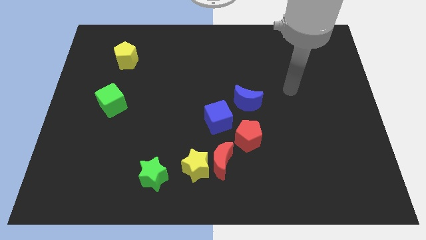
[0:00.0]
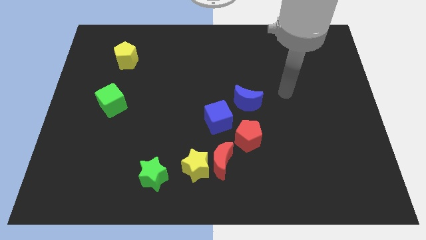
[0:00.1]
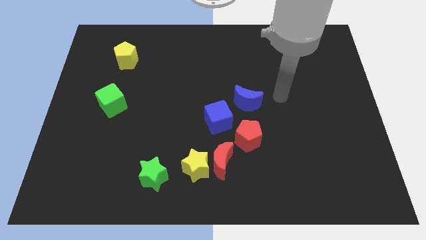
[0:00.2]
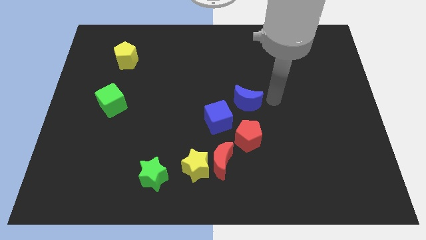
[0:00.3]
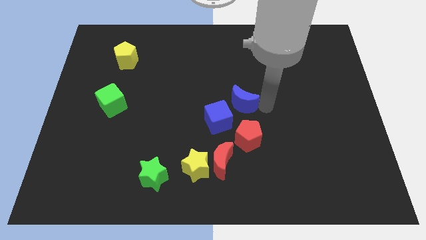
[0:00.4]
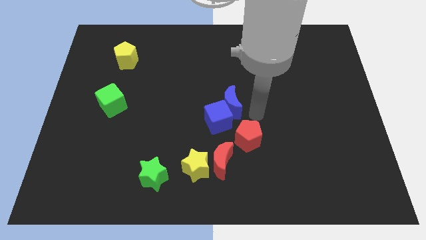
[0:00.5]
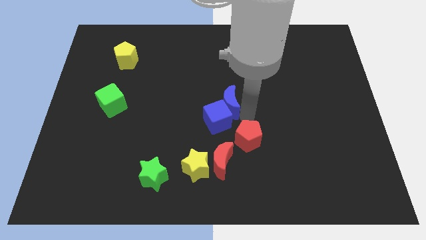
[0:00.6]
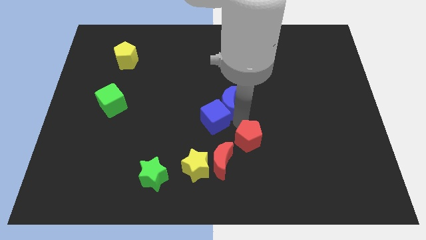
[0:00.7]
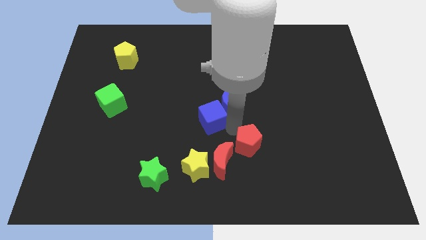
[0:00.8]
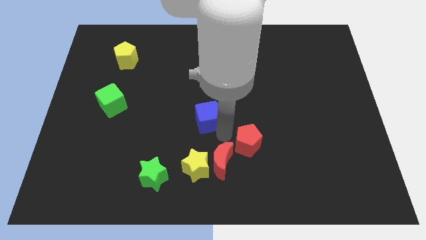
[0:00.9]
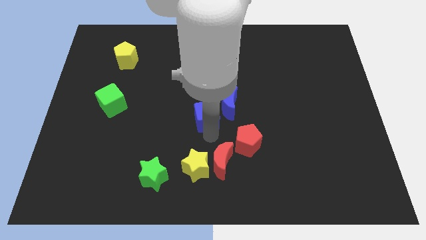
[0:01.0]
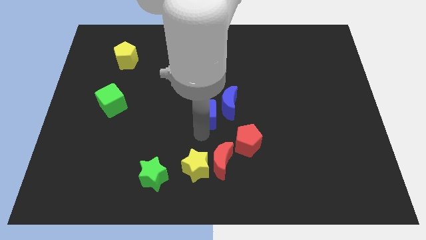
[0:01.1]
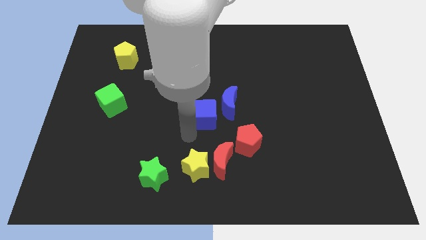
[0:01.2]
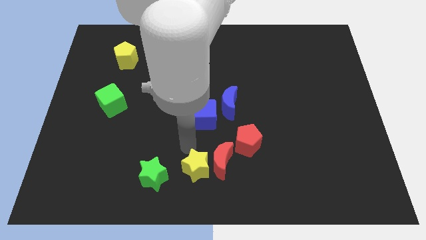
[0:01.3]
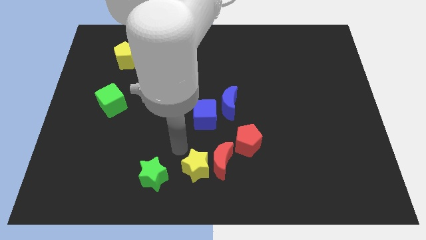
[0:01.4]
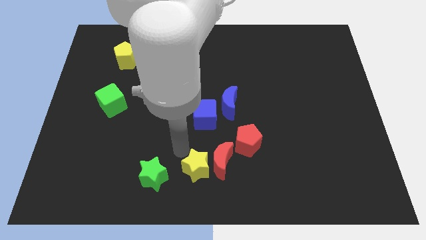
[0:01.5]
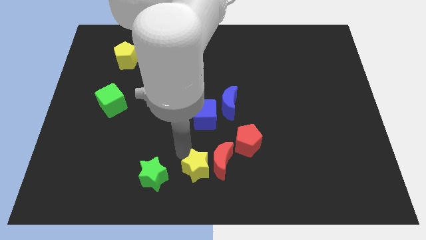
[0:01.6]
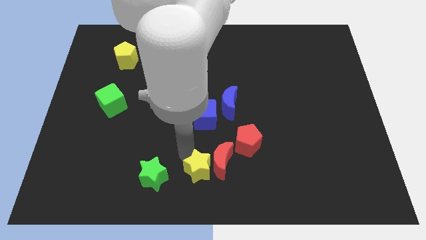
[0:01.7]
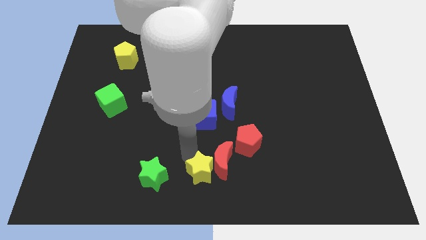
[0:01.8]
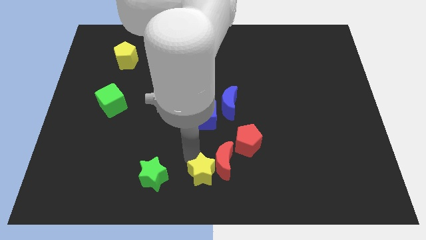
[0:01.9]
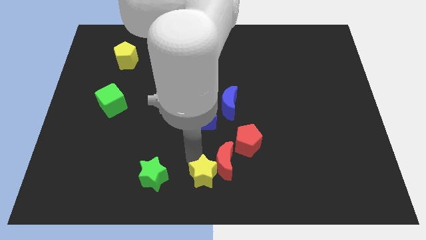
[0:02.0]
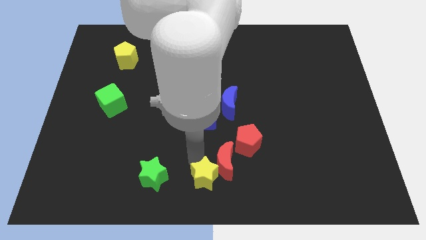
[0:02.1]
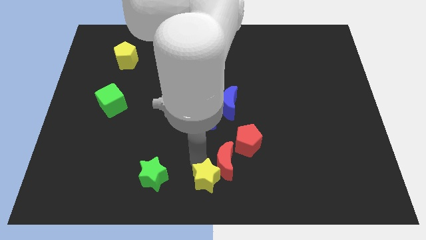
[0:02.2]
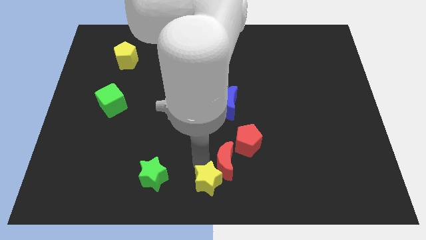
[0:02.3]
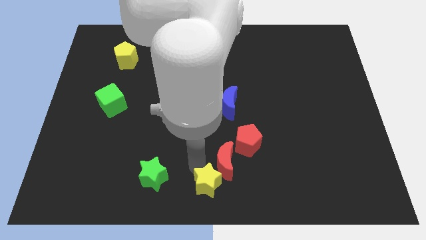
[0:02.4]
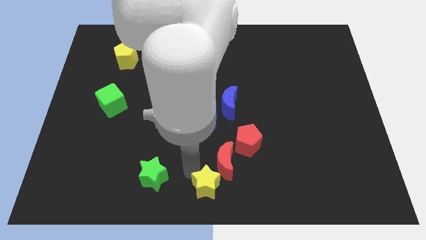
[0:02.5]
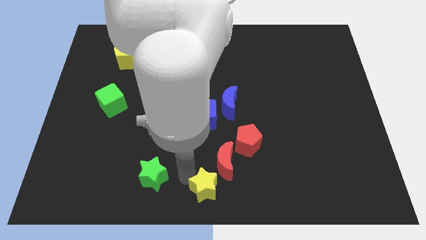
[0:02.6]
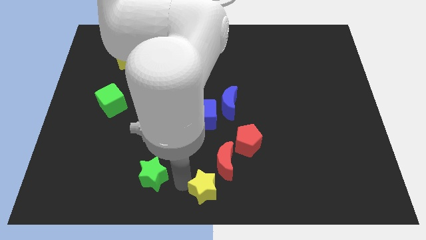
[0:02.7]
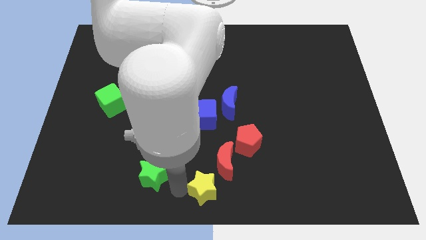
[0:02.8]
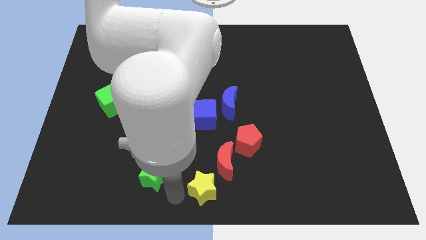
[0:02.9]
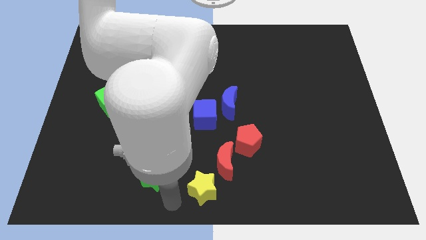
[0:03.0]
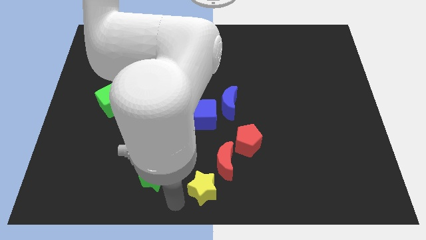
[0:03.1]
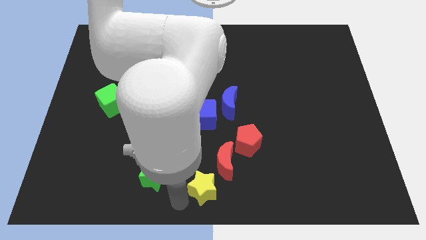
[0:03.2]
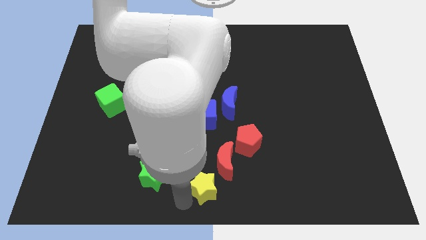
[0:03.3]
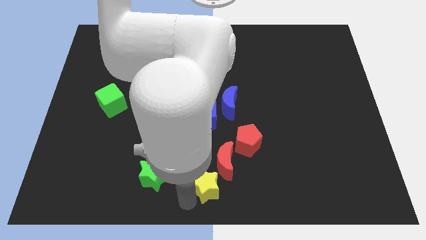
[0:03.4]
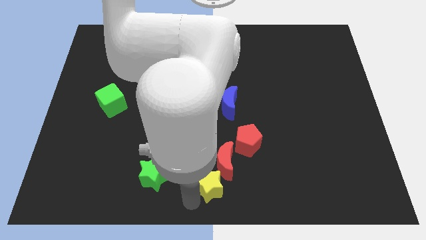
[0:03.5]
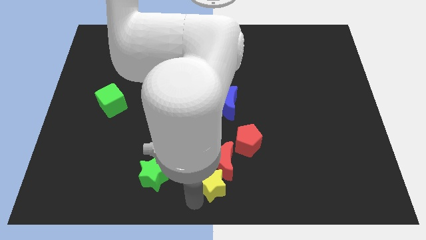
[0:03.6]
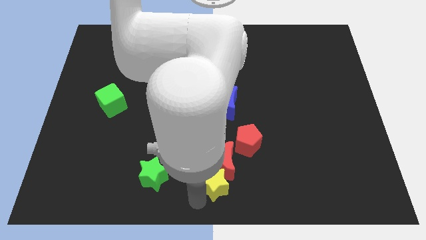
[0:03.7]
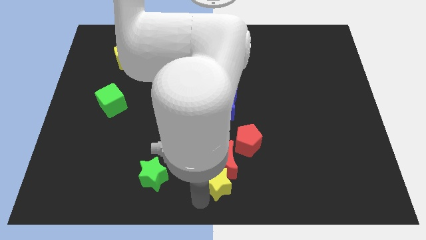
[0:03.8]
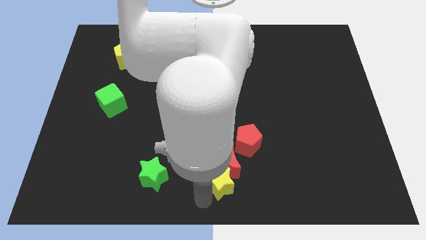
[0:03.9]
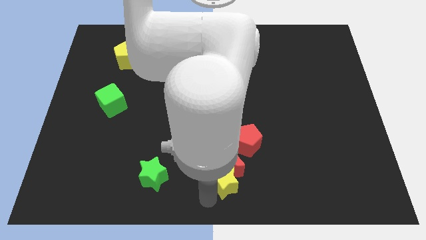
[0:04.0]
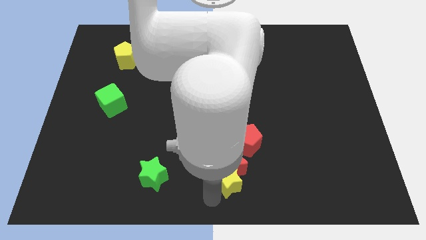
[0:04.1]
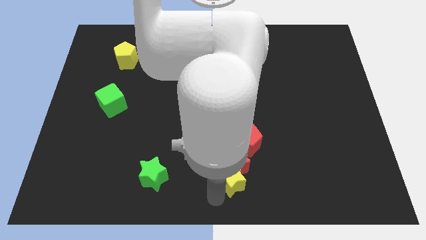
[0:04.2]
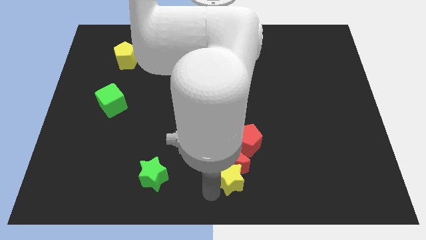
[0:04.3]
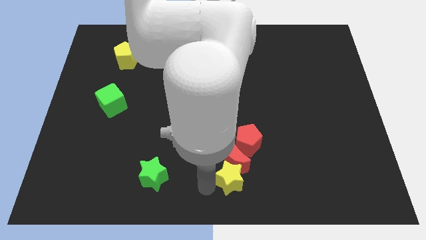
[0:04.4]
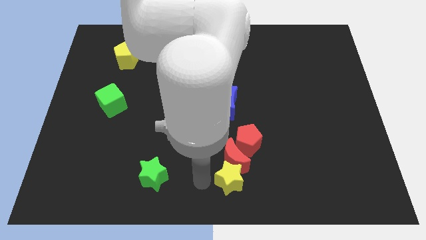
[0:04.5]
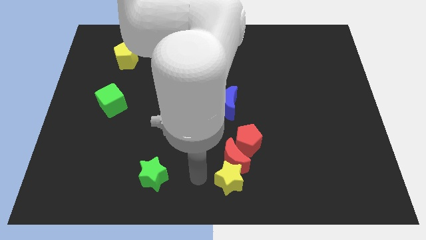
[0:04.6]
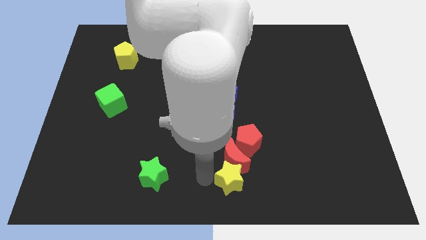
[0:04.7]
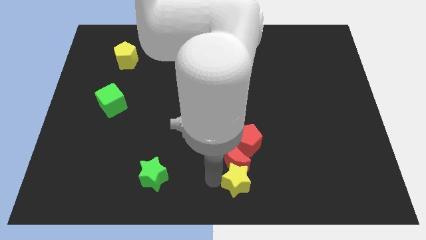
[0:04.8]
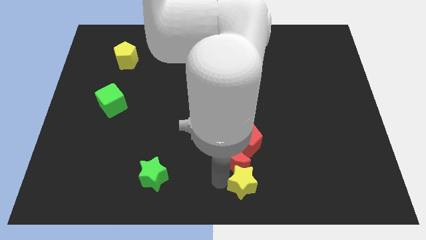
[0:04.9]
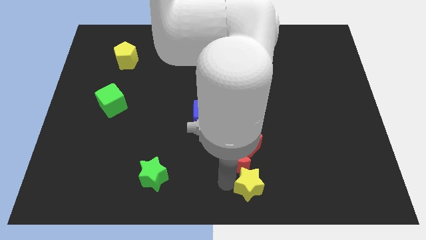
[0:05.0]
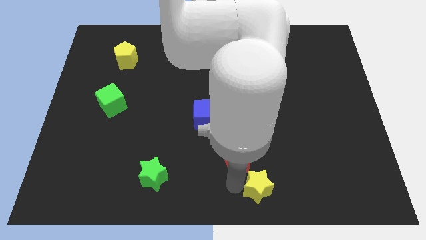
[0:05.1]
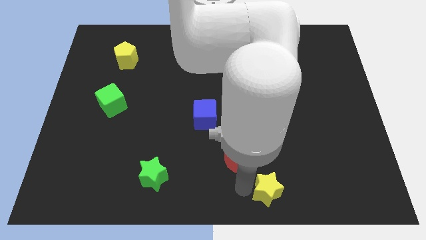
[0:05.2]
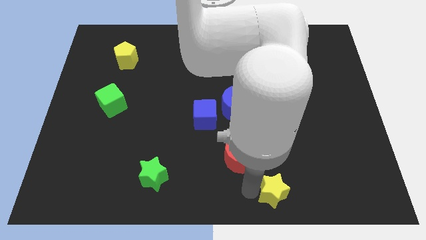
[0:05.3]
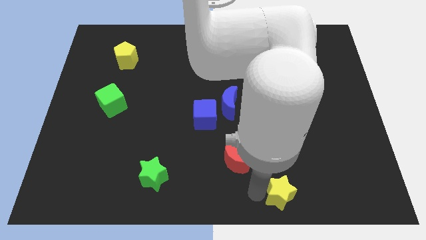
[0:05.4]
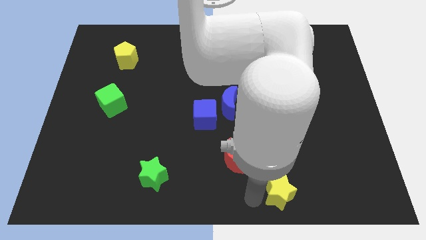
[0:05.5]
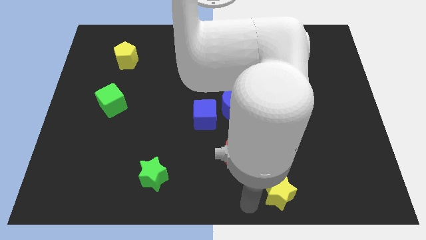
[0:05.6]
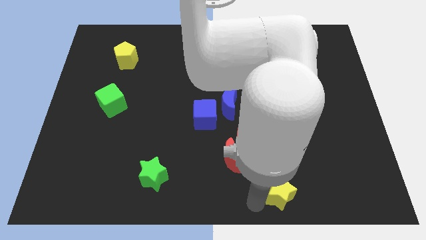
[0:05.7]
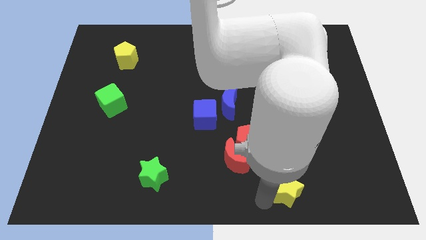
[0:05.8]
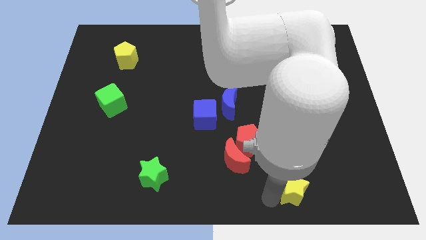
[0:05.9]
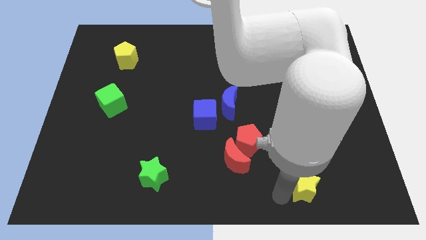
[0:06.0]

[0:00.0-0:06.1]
slide the yellow star to the right

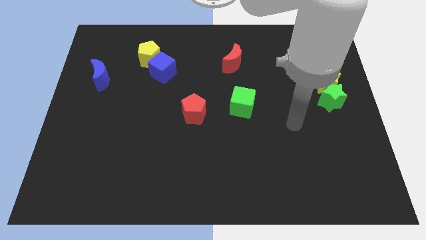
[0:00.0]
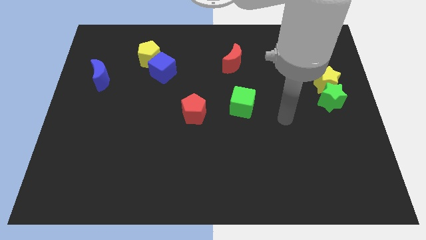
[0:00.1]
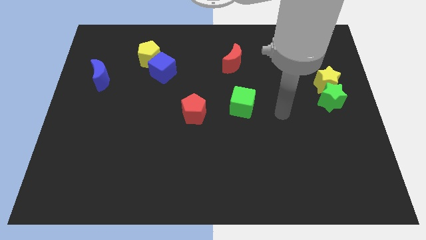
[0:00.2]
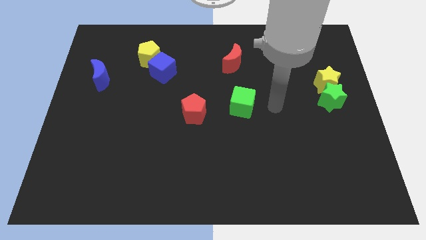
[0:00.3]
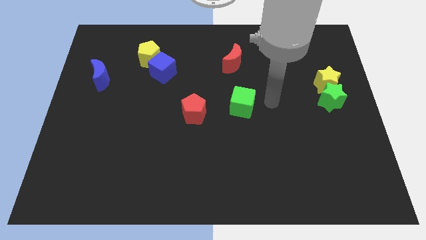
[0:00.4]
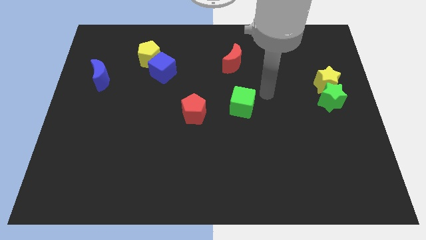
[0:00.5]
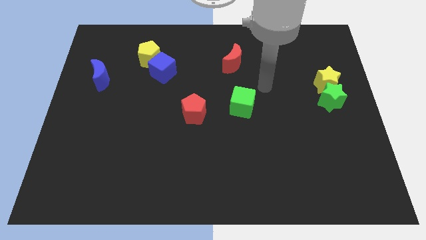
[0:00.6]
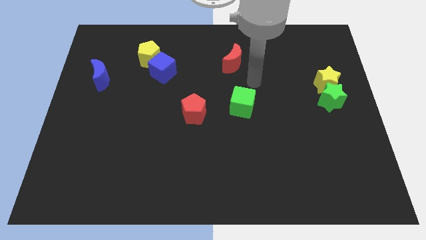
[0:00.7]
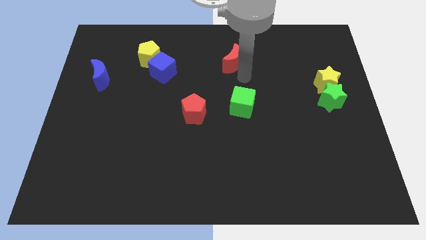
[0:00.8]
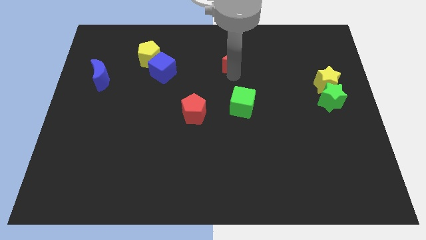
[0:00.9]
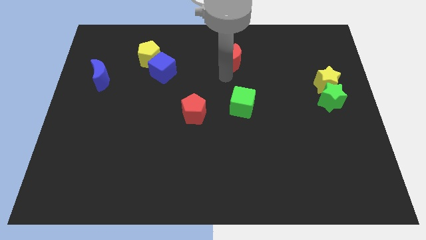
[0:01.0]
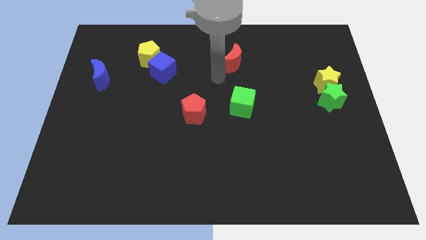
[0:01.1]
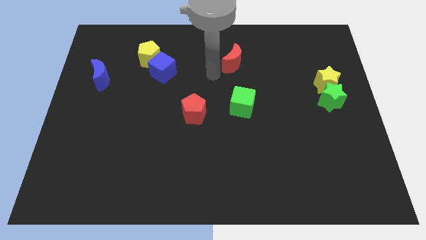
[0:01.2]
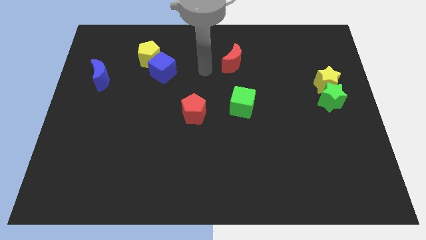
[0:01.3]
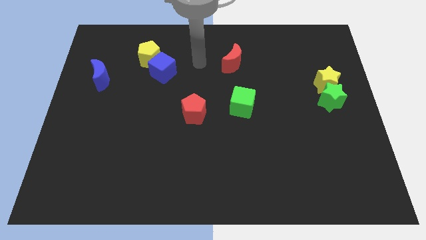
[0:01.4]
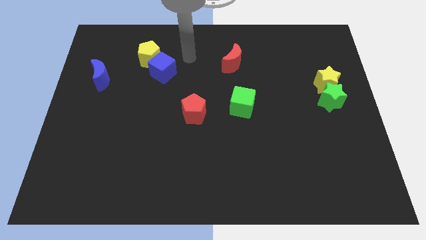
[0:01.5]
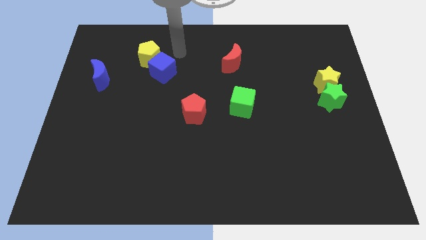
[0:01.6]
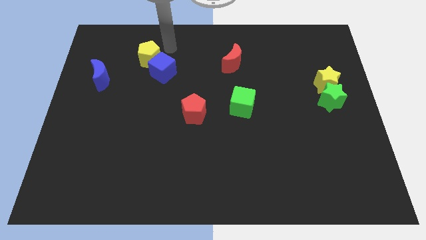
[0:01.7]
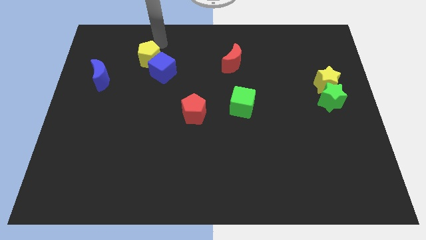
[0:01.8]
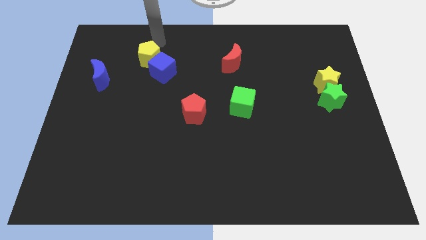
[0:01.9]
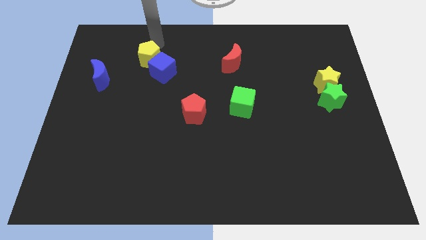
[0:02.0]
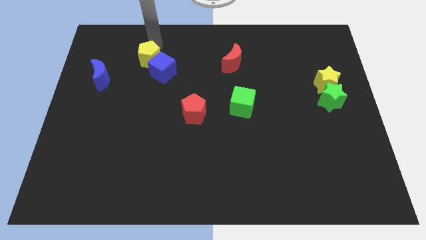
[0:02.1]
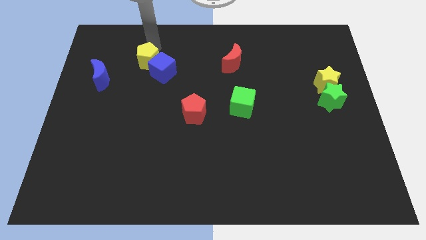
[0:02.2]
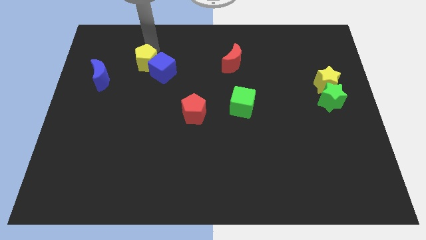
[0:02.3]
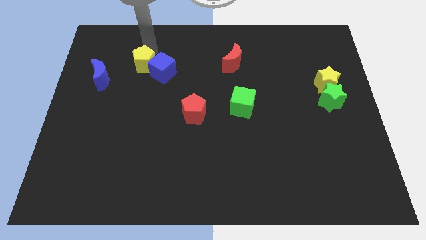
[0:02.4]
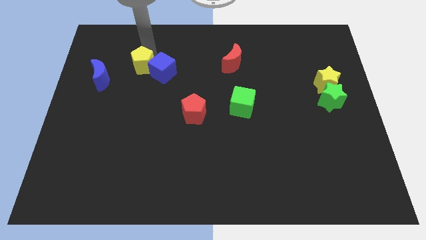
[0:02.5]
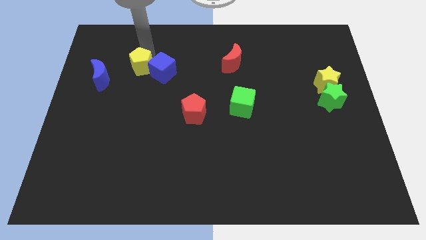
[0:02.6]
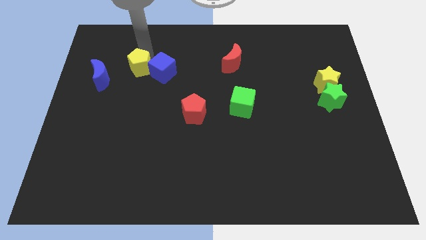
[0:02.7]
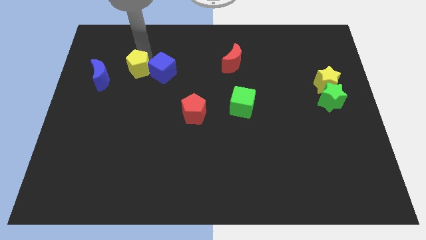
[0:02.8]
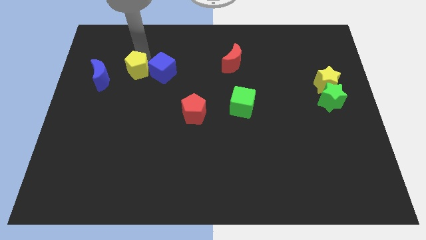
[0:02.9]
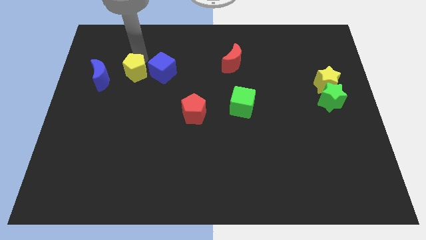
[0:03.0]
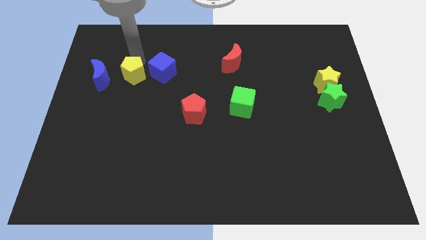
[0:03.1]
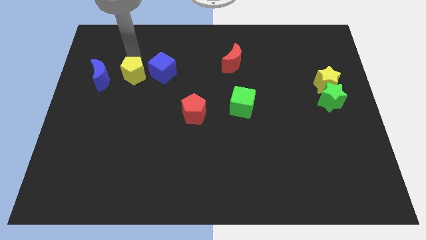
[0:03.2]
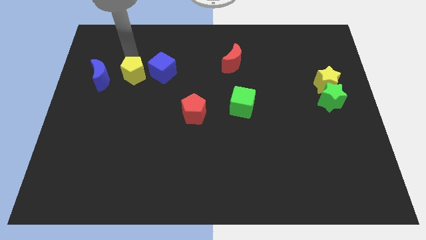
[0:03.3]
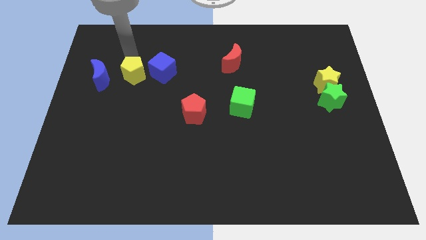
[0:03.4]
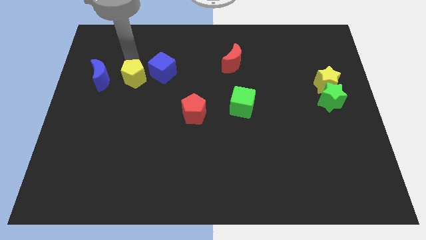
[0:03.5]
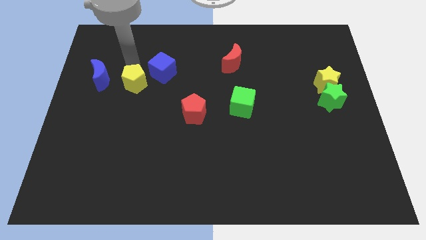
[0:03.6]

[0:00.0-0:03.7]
slightly slide the yellow pentagon downwards
